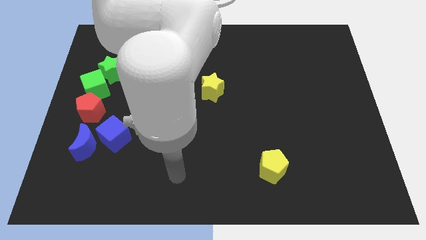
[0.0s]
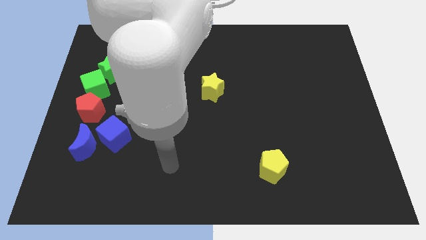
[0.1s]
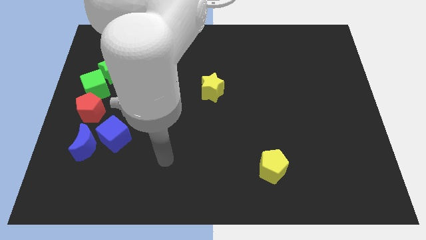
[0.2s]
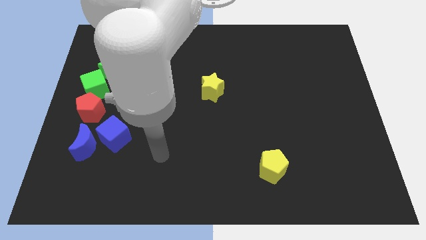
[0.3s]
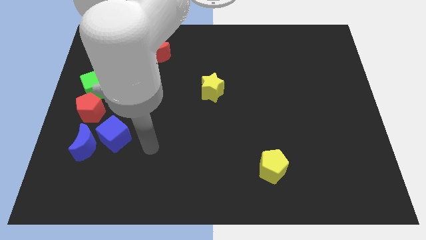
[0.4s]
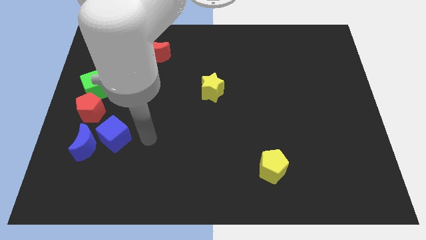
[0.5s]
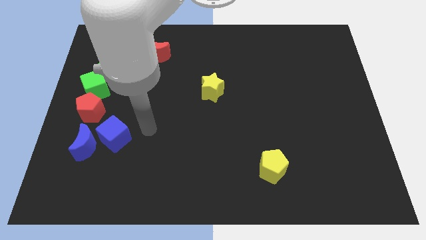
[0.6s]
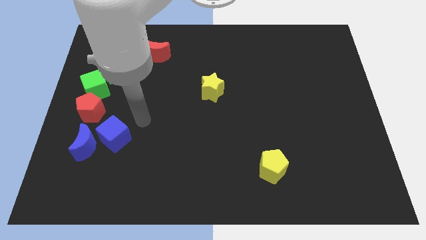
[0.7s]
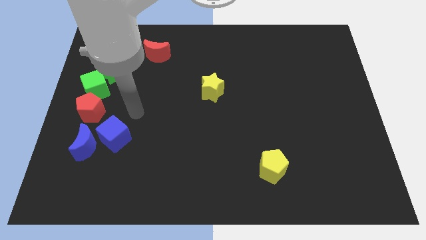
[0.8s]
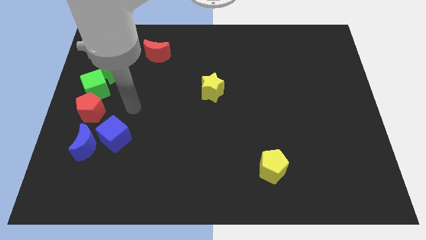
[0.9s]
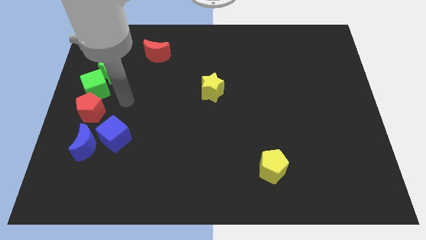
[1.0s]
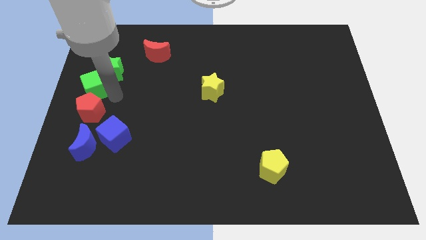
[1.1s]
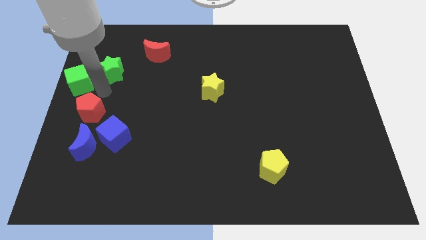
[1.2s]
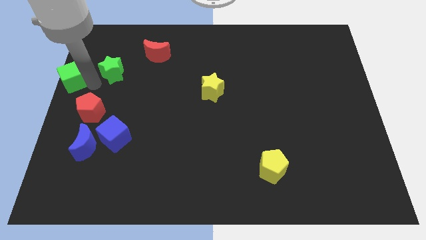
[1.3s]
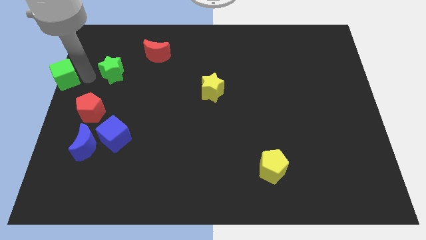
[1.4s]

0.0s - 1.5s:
separate the green star from the green cube

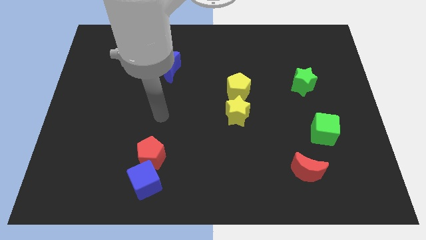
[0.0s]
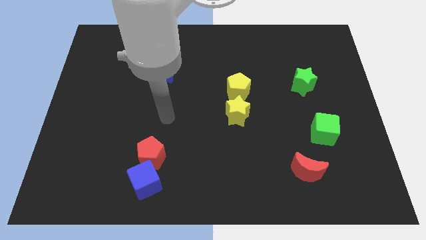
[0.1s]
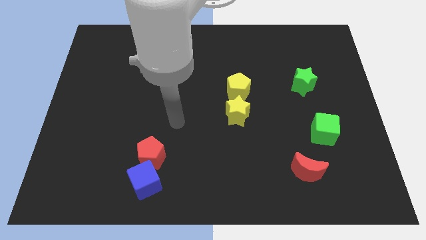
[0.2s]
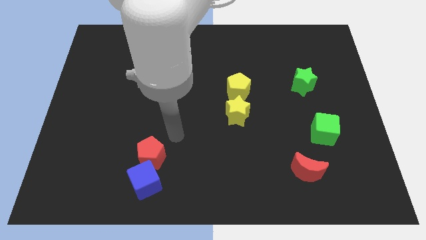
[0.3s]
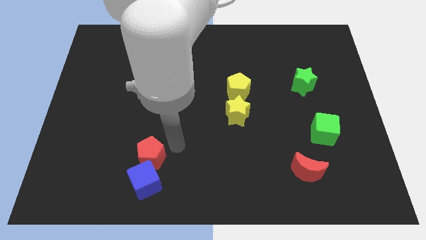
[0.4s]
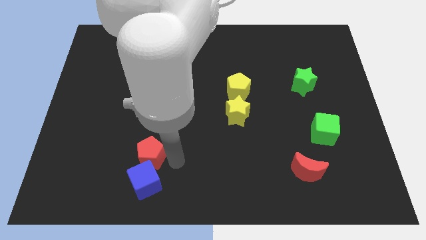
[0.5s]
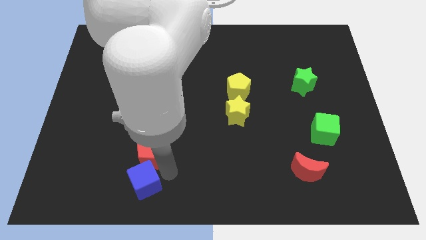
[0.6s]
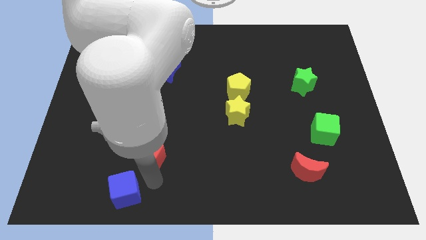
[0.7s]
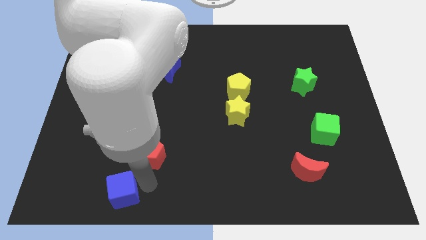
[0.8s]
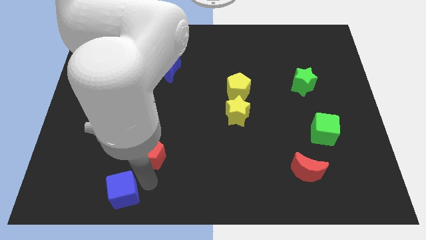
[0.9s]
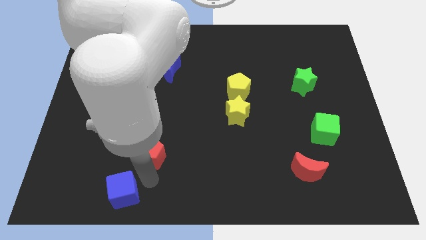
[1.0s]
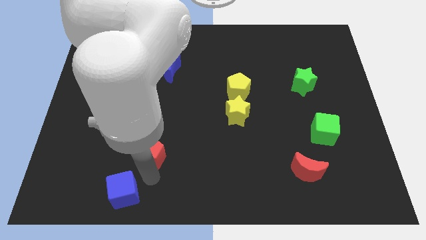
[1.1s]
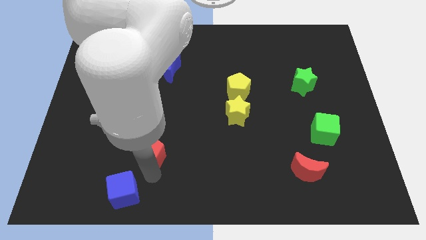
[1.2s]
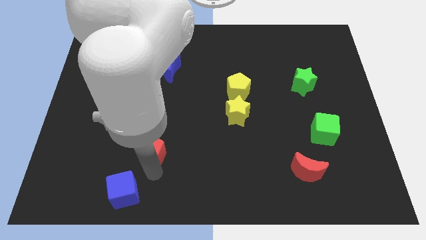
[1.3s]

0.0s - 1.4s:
move the red pentagon away from the blue cube

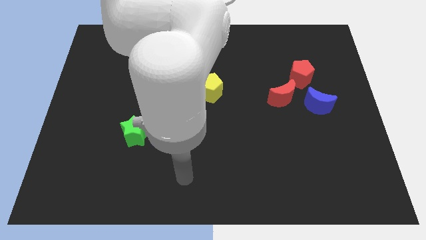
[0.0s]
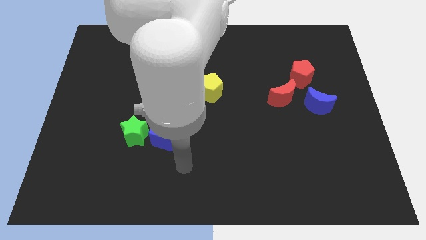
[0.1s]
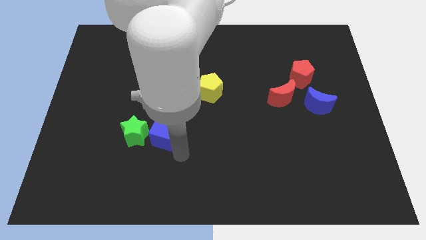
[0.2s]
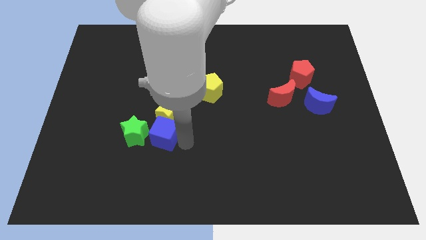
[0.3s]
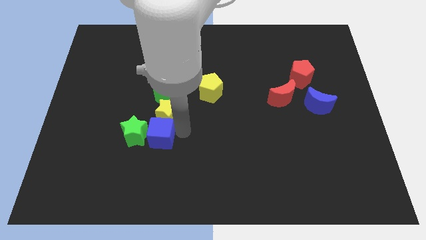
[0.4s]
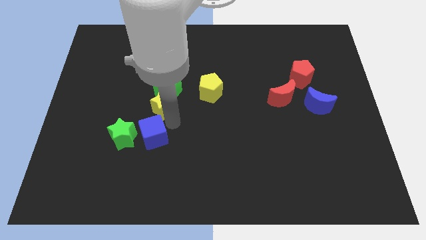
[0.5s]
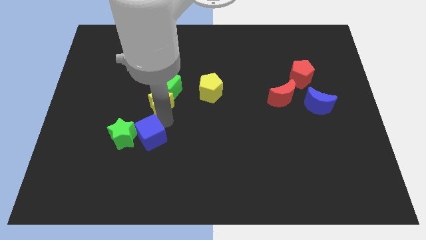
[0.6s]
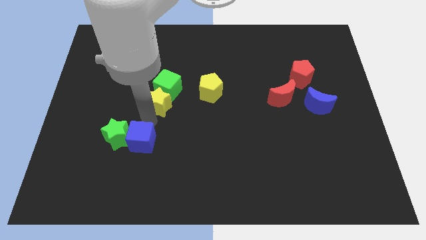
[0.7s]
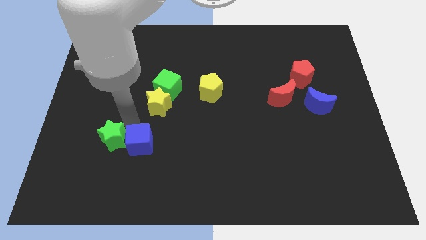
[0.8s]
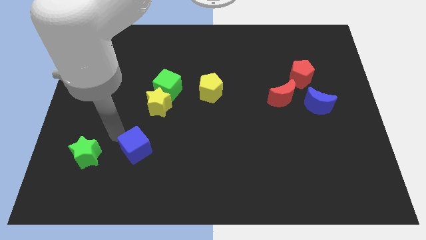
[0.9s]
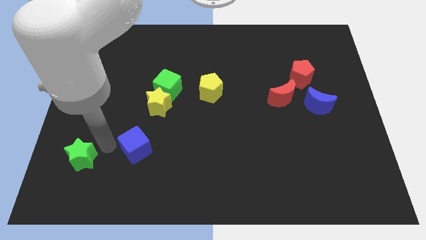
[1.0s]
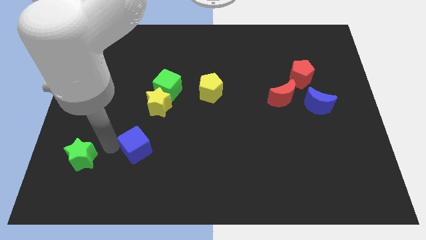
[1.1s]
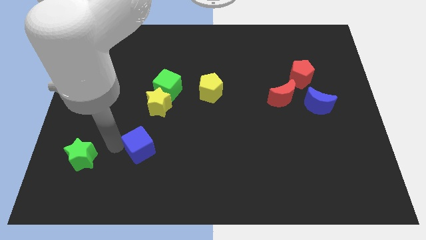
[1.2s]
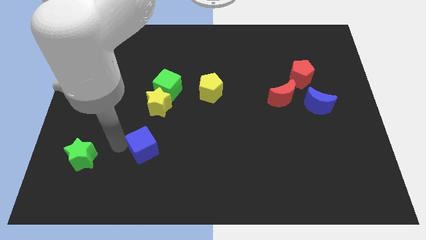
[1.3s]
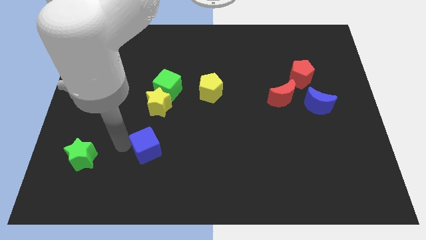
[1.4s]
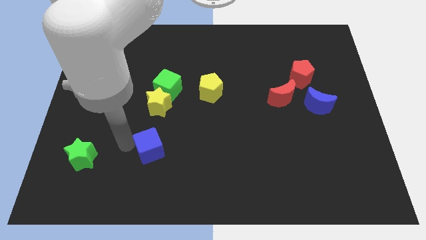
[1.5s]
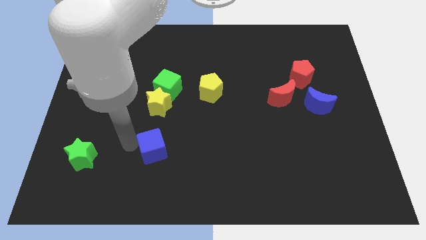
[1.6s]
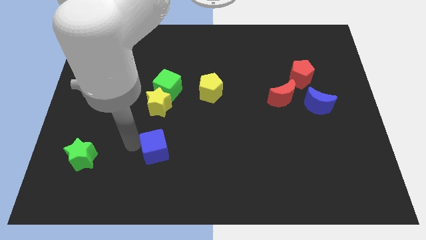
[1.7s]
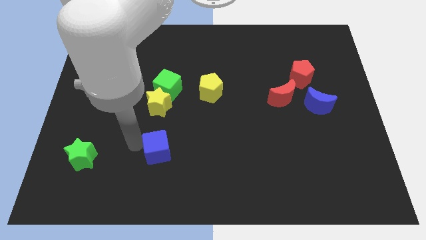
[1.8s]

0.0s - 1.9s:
move the blue cube away from the yellow star and green star

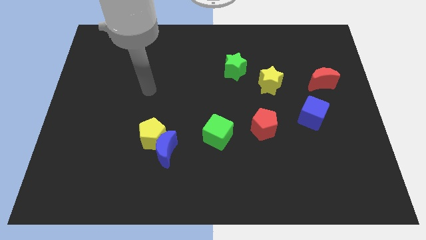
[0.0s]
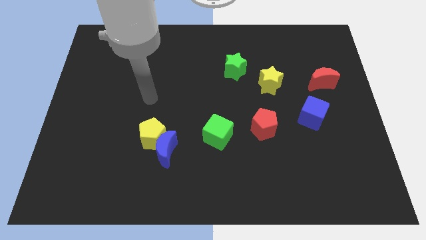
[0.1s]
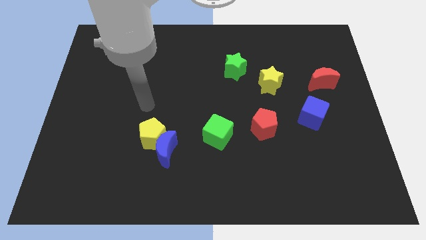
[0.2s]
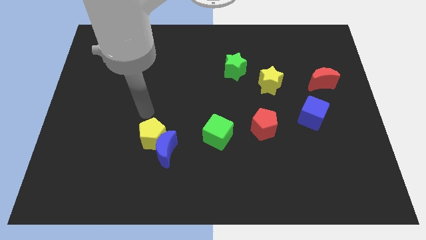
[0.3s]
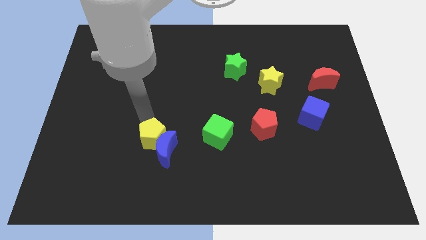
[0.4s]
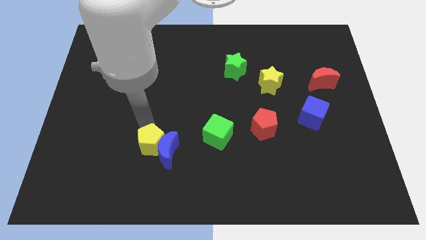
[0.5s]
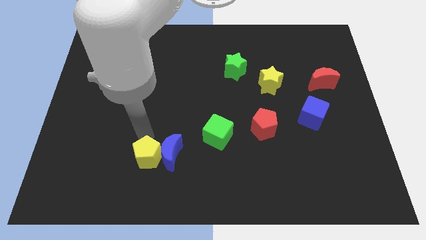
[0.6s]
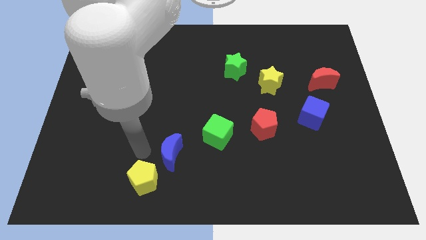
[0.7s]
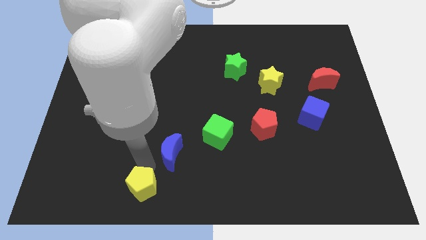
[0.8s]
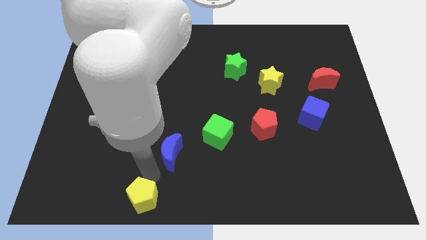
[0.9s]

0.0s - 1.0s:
pull the blue moon apart from the yellow pentagon

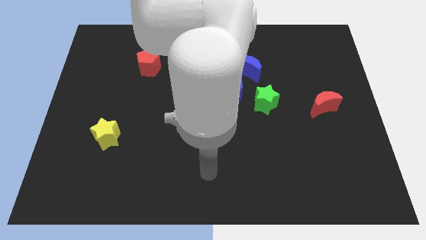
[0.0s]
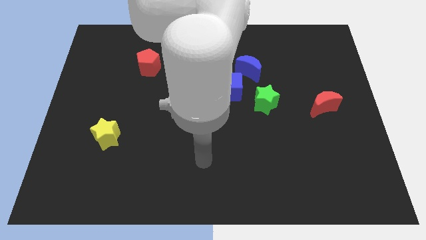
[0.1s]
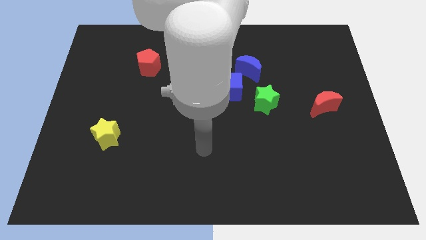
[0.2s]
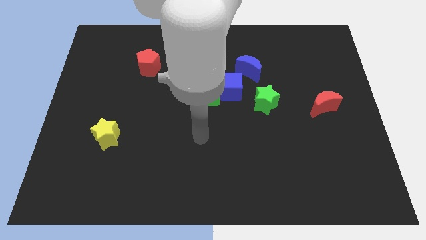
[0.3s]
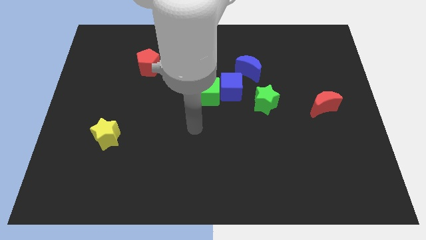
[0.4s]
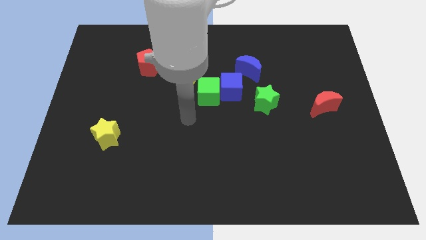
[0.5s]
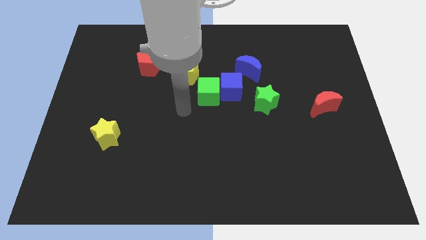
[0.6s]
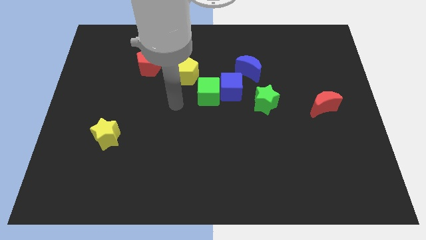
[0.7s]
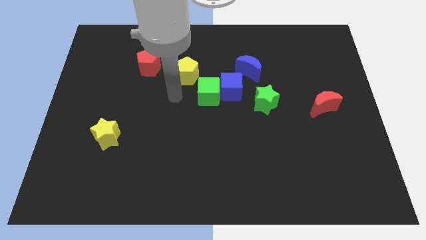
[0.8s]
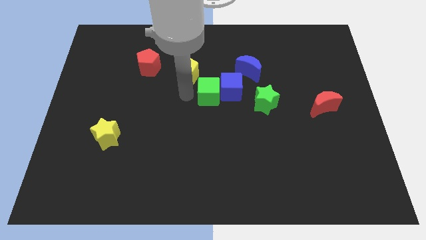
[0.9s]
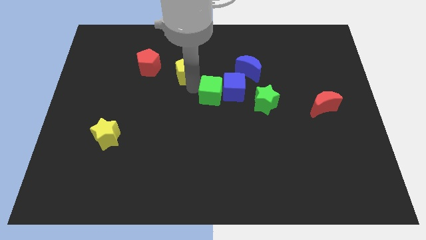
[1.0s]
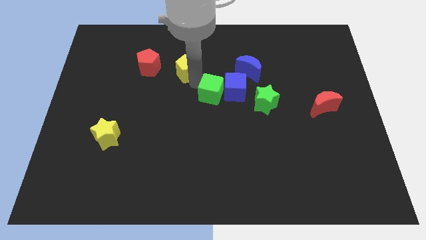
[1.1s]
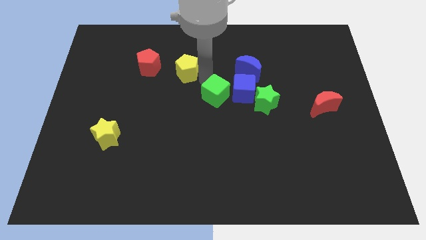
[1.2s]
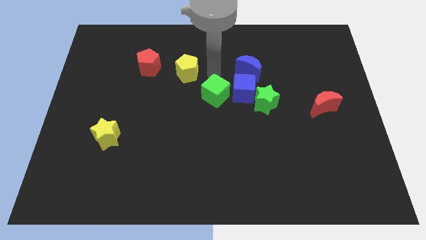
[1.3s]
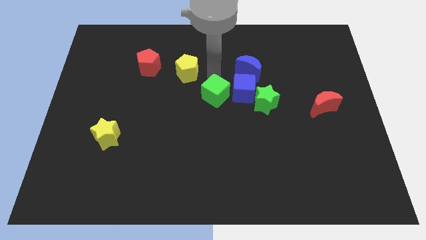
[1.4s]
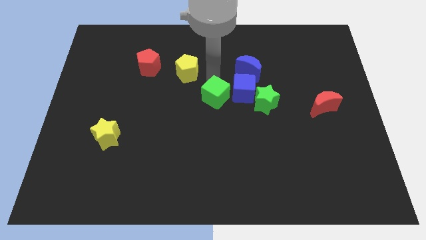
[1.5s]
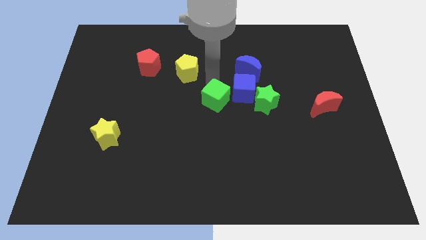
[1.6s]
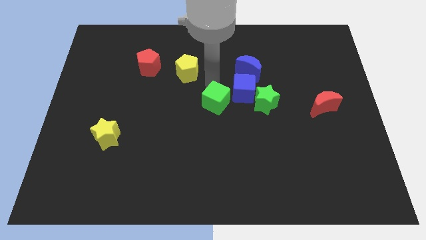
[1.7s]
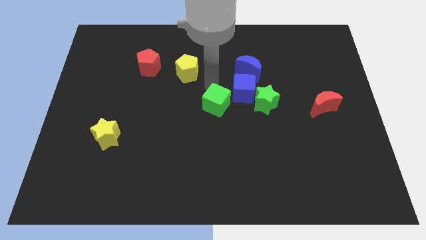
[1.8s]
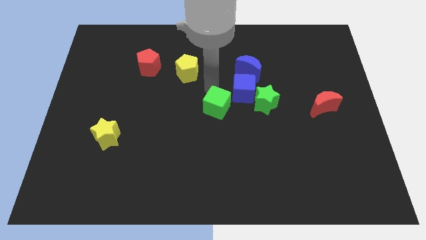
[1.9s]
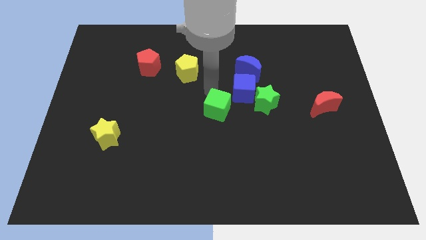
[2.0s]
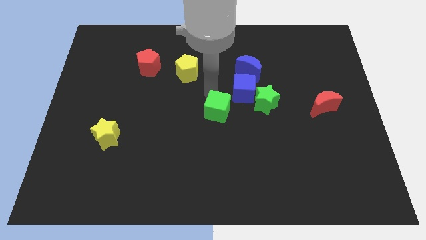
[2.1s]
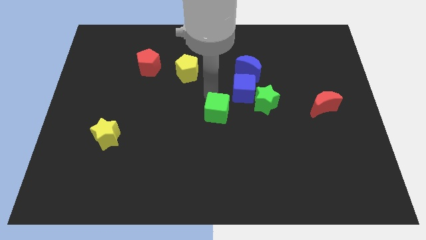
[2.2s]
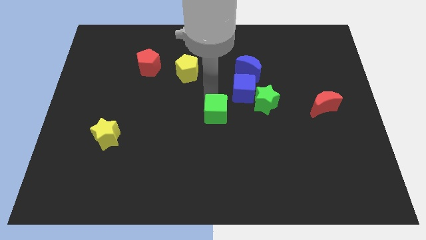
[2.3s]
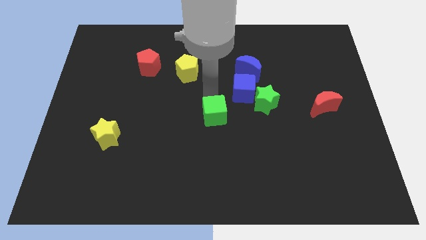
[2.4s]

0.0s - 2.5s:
separate the green cube from the blue cube and yellow pentagon

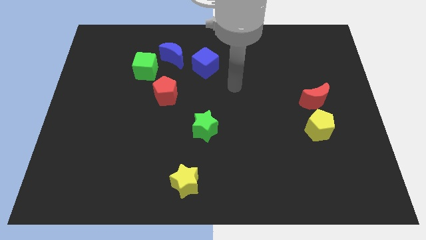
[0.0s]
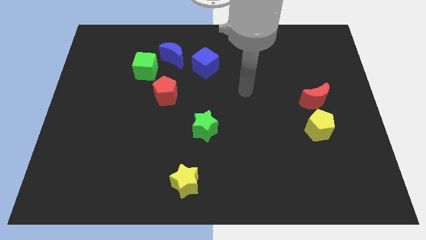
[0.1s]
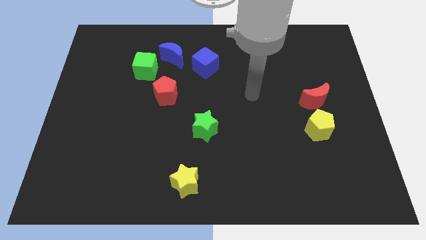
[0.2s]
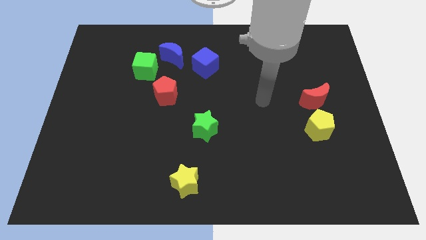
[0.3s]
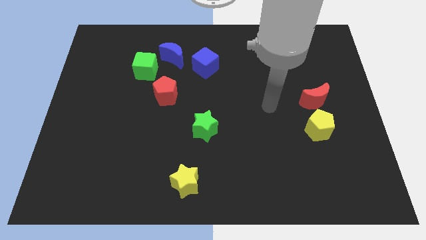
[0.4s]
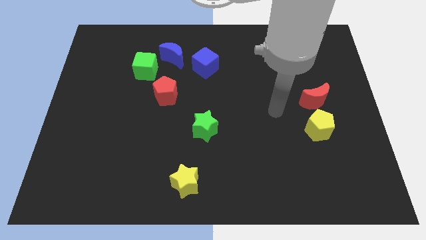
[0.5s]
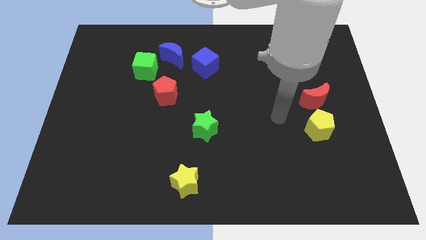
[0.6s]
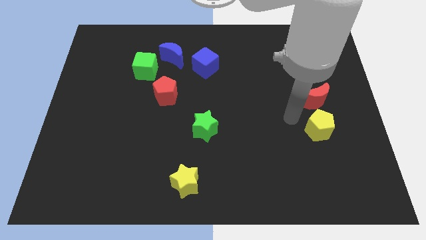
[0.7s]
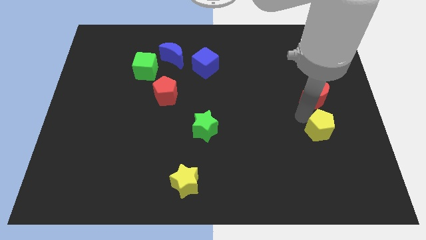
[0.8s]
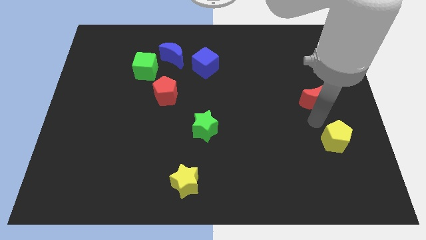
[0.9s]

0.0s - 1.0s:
pull the red moon apart from the yellow pentagon
